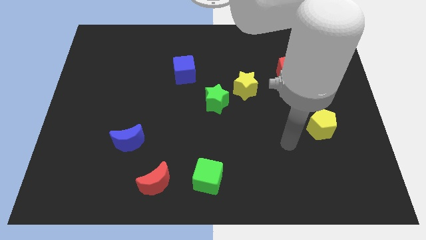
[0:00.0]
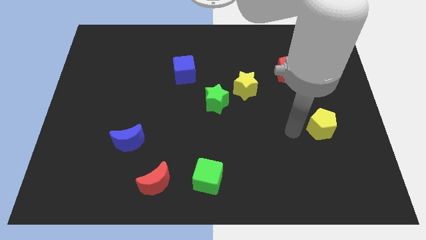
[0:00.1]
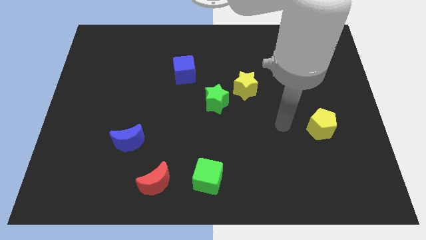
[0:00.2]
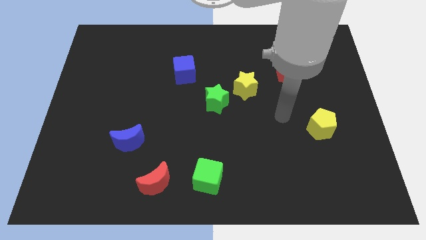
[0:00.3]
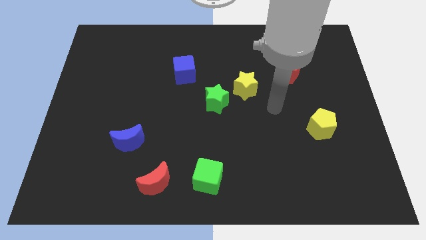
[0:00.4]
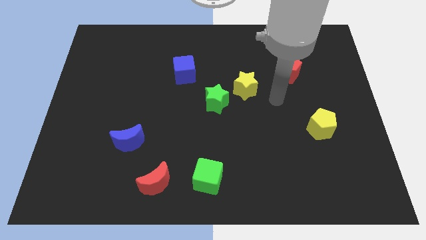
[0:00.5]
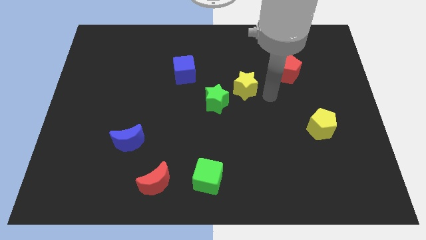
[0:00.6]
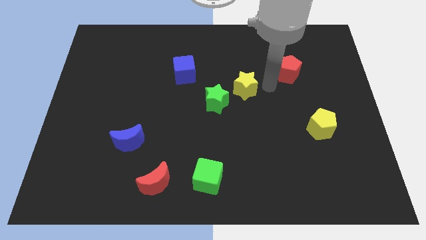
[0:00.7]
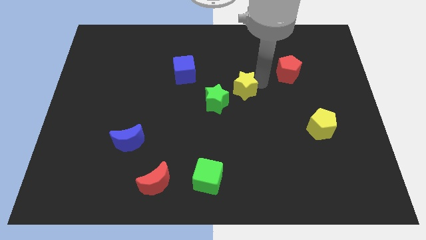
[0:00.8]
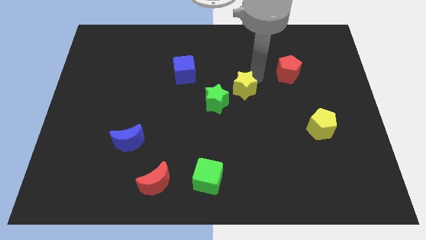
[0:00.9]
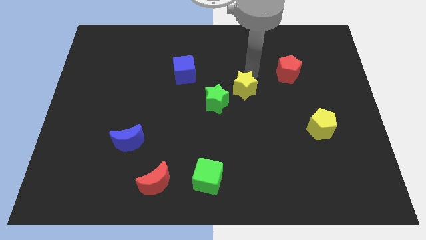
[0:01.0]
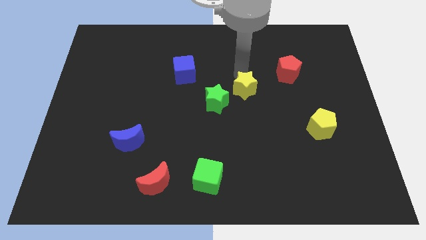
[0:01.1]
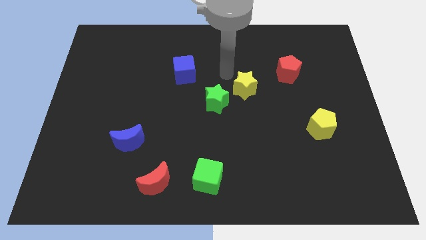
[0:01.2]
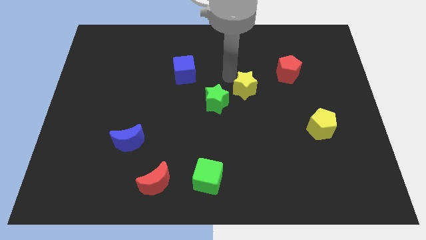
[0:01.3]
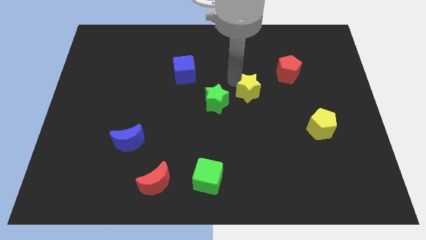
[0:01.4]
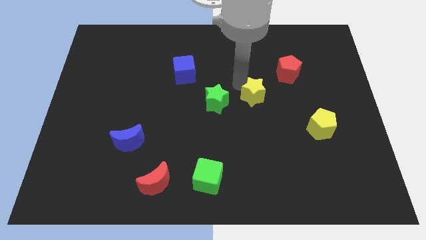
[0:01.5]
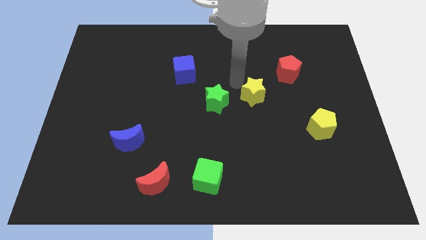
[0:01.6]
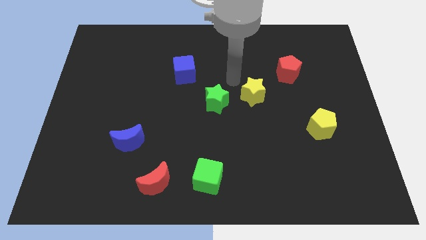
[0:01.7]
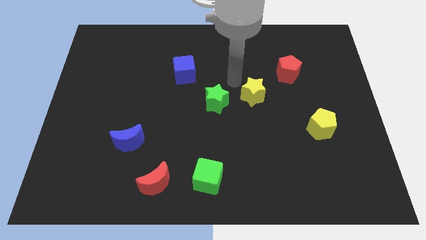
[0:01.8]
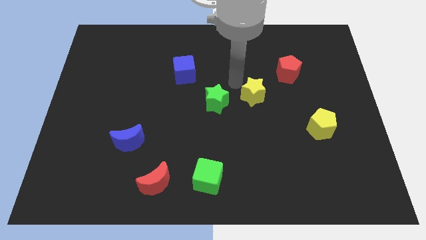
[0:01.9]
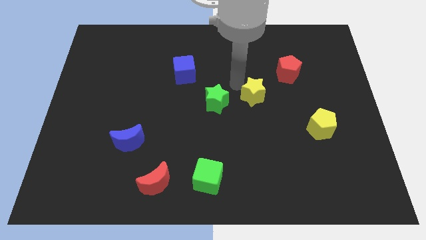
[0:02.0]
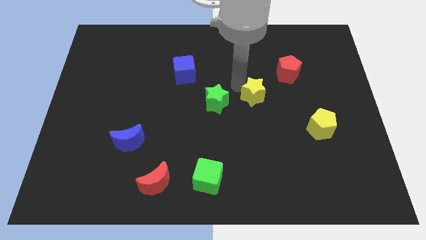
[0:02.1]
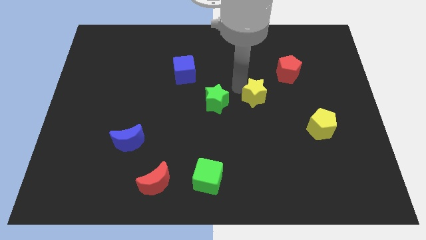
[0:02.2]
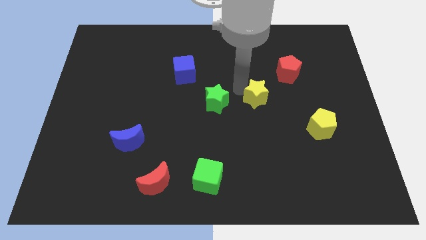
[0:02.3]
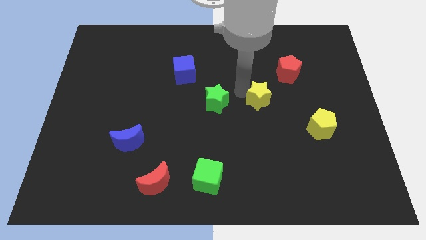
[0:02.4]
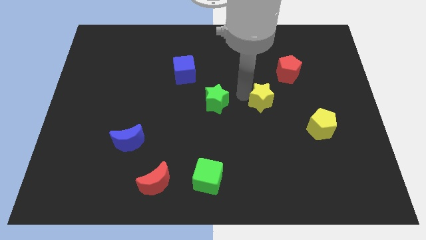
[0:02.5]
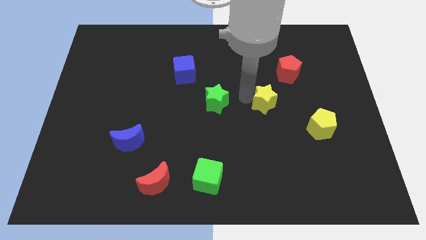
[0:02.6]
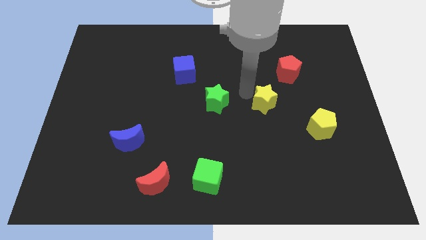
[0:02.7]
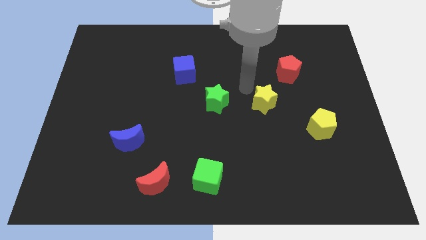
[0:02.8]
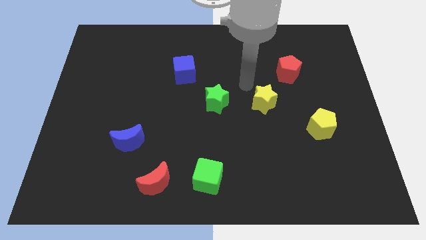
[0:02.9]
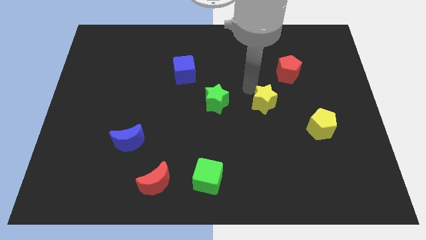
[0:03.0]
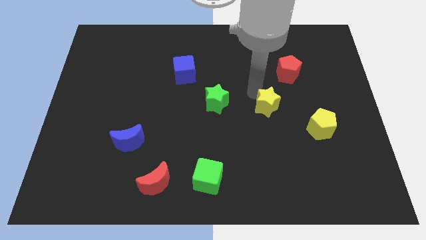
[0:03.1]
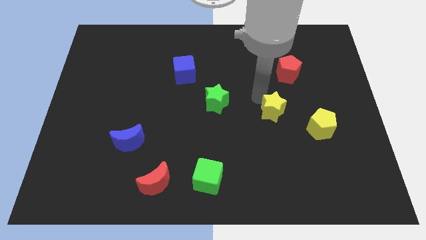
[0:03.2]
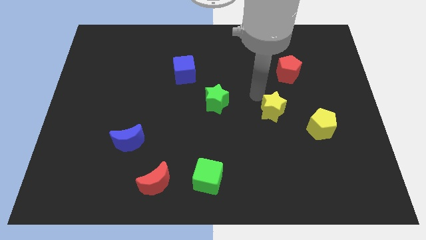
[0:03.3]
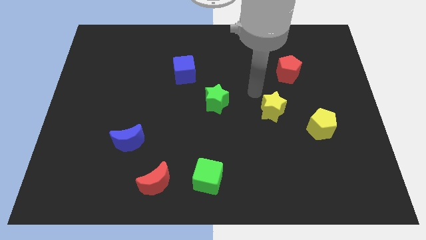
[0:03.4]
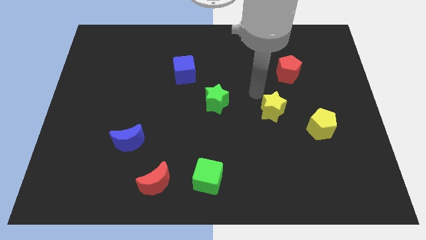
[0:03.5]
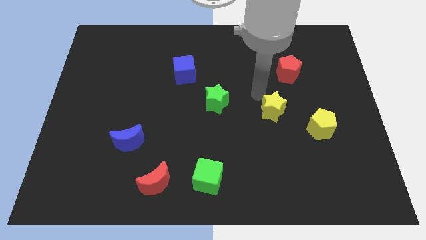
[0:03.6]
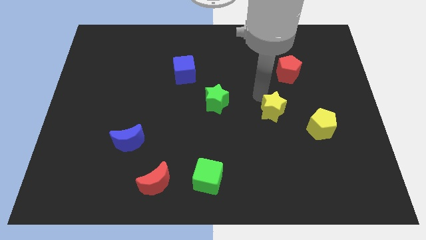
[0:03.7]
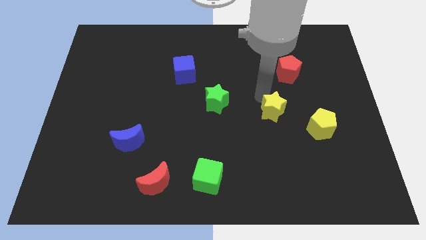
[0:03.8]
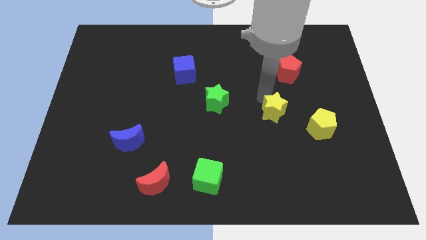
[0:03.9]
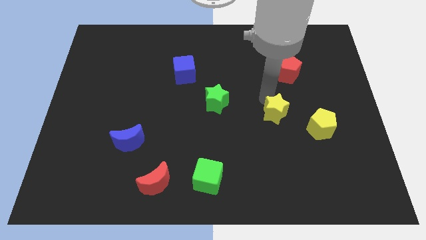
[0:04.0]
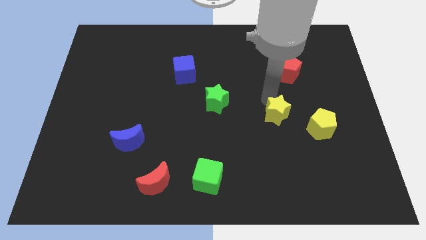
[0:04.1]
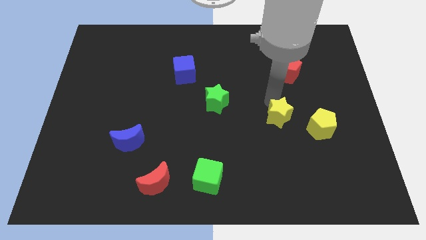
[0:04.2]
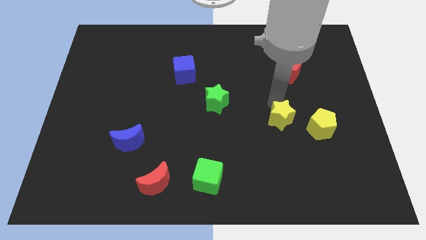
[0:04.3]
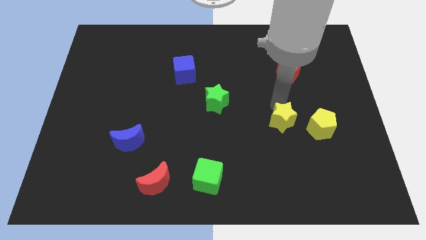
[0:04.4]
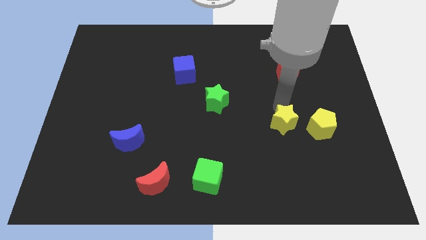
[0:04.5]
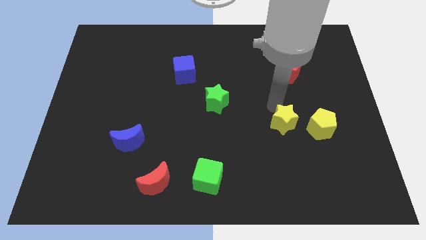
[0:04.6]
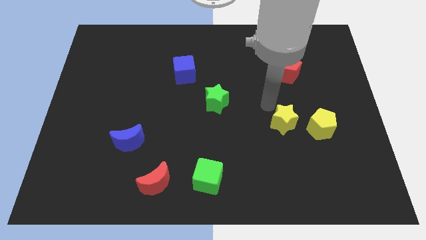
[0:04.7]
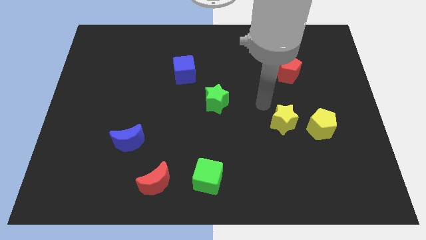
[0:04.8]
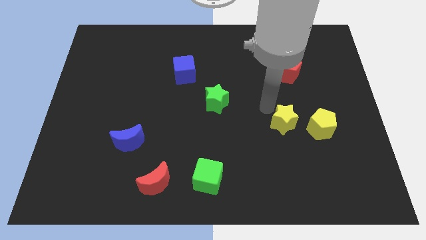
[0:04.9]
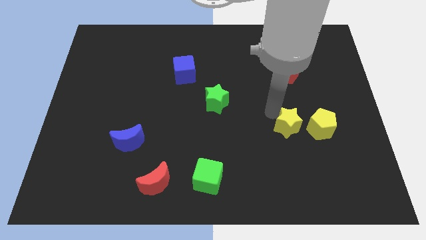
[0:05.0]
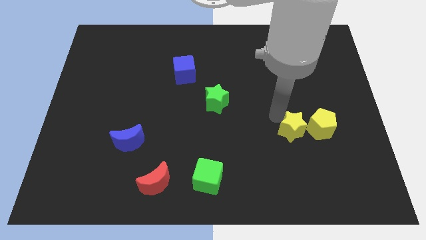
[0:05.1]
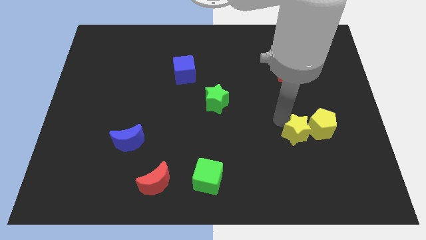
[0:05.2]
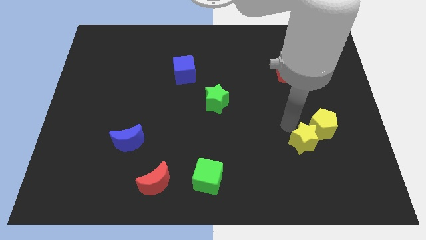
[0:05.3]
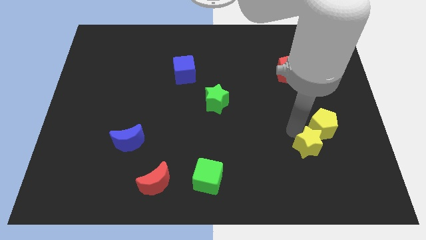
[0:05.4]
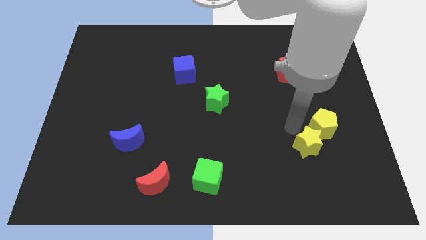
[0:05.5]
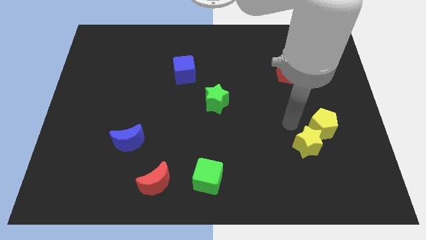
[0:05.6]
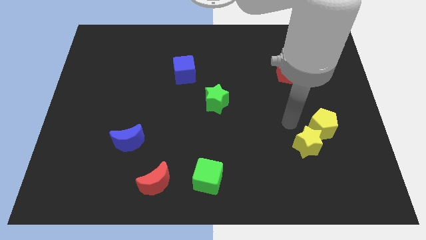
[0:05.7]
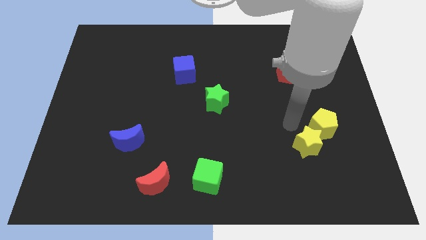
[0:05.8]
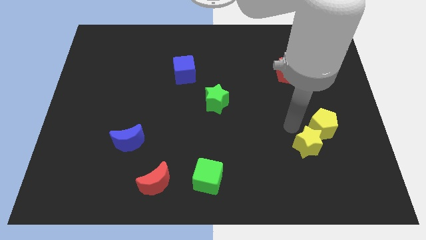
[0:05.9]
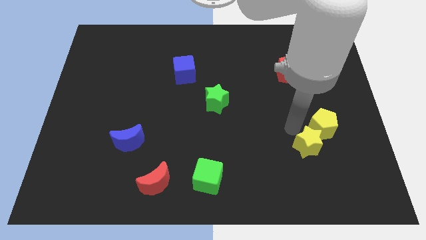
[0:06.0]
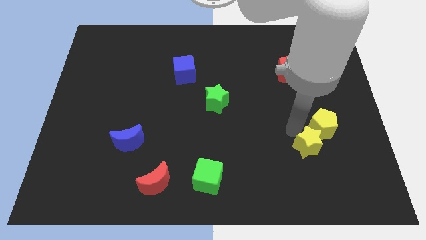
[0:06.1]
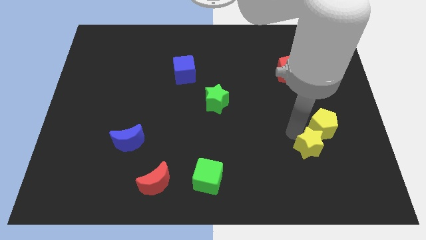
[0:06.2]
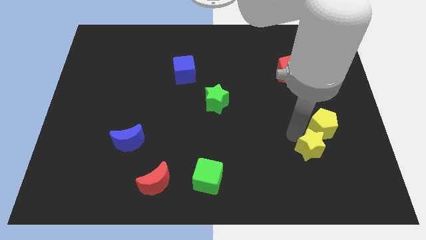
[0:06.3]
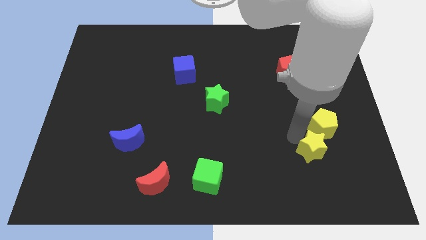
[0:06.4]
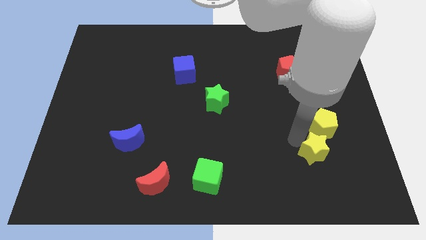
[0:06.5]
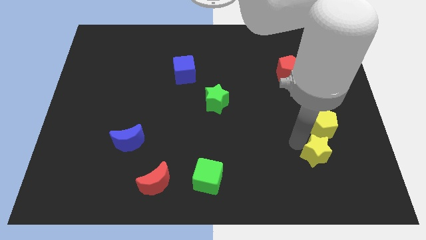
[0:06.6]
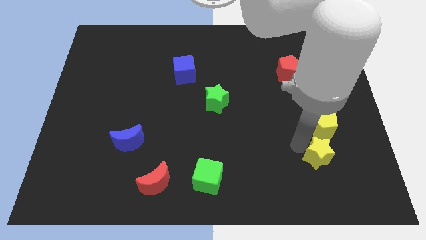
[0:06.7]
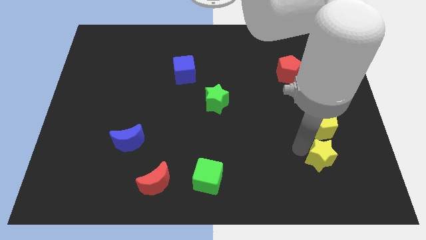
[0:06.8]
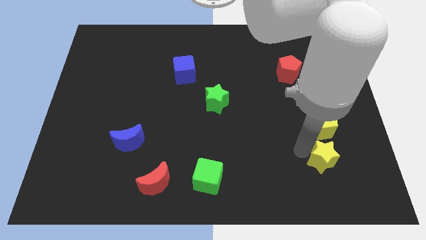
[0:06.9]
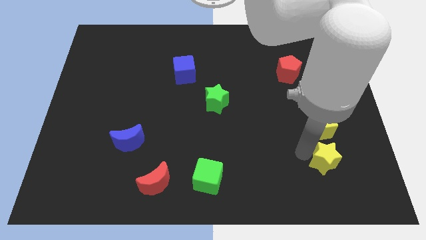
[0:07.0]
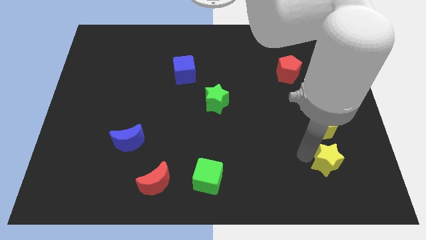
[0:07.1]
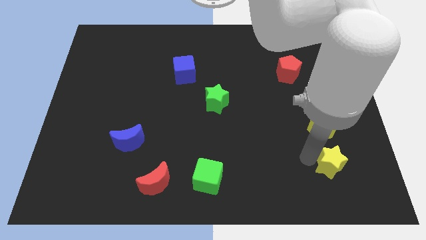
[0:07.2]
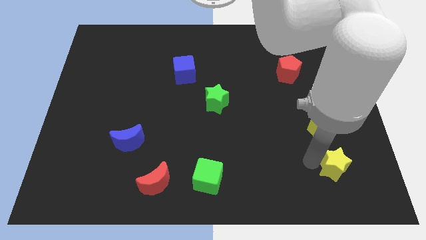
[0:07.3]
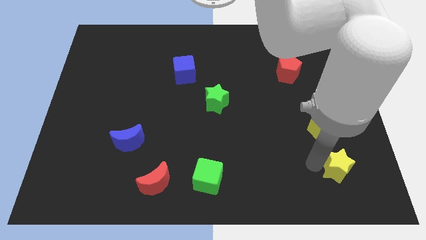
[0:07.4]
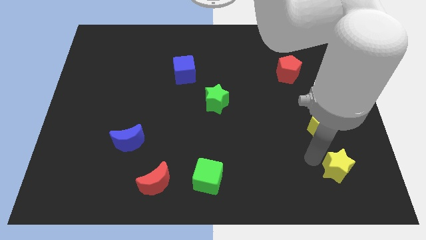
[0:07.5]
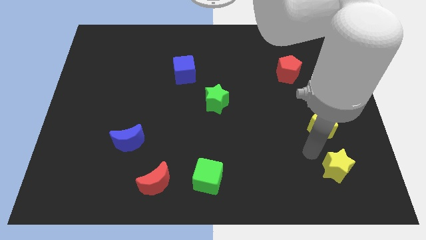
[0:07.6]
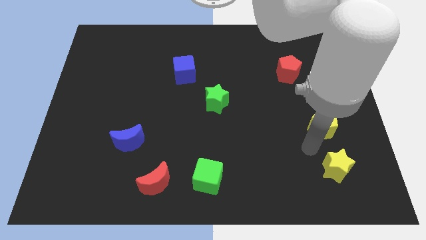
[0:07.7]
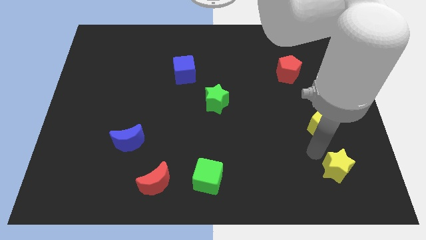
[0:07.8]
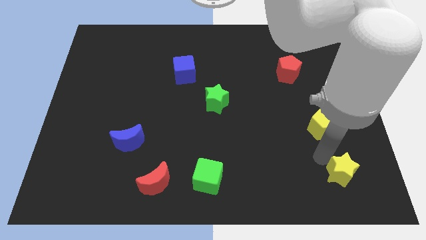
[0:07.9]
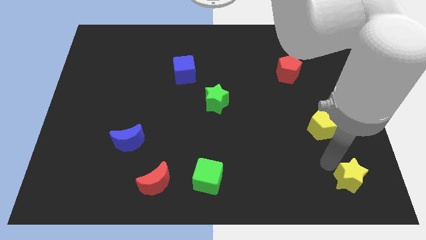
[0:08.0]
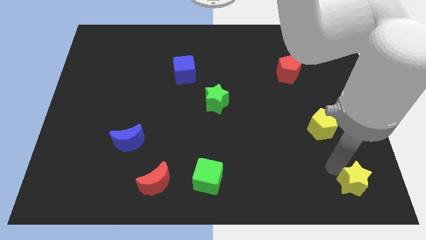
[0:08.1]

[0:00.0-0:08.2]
push the yellow star to the lower right corner
